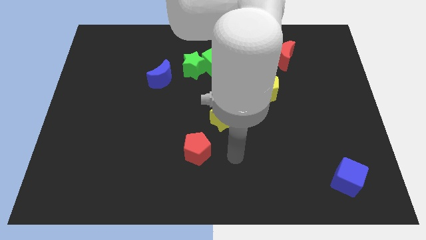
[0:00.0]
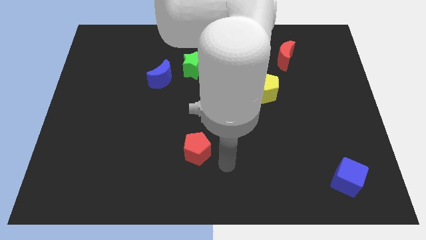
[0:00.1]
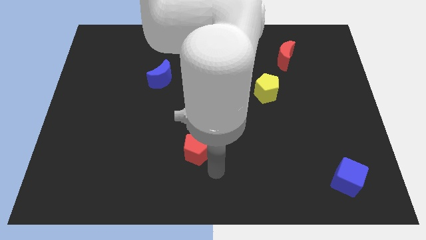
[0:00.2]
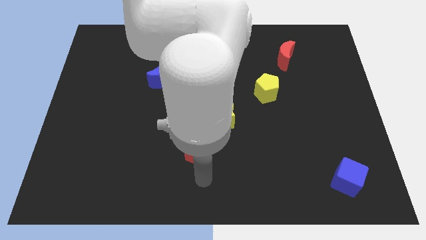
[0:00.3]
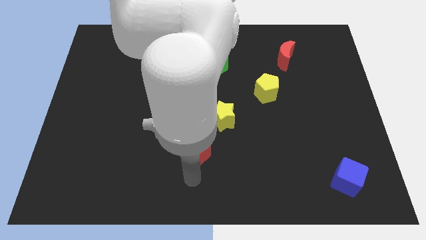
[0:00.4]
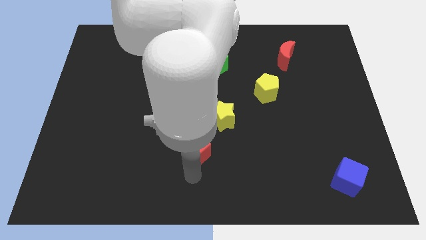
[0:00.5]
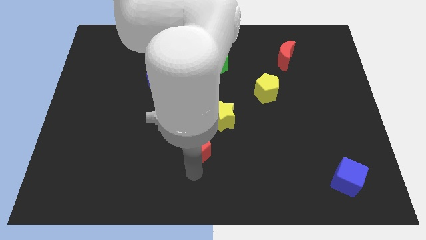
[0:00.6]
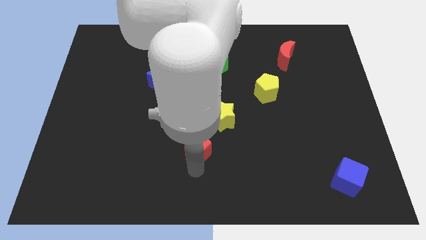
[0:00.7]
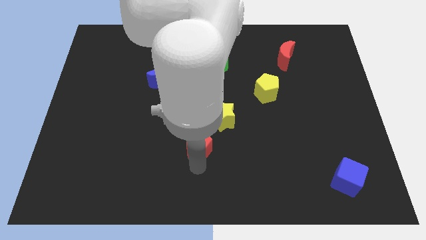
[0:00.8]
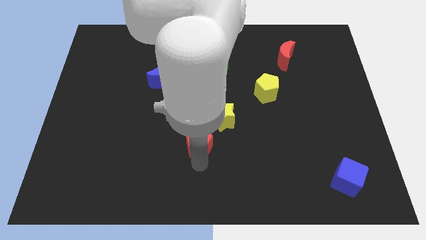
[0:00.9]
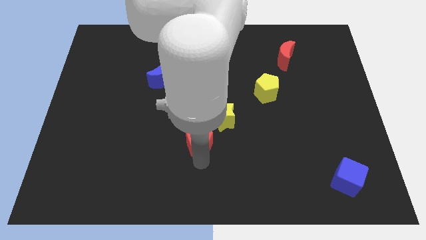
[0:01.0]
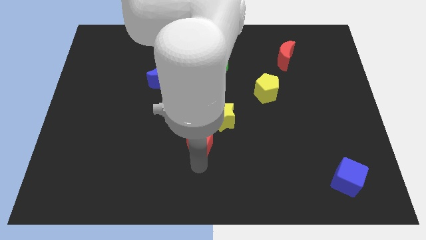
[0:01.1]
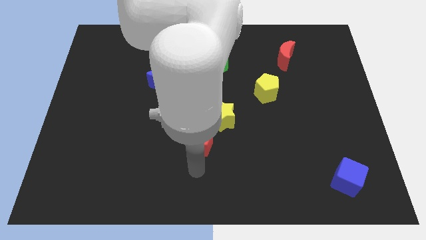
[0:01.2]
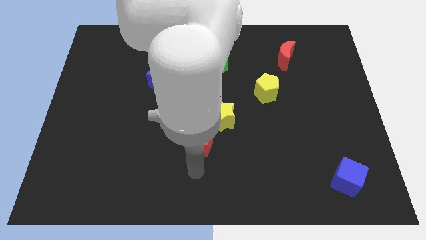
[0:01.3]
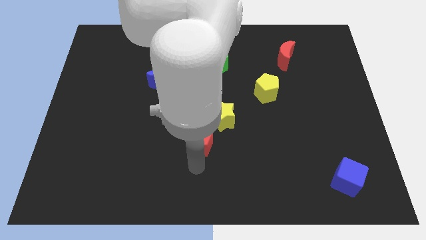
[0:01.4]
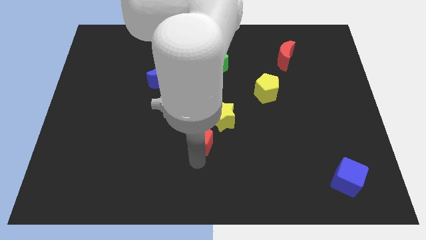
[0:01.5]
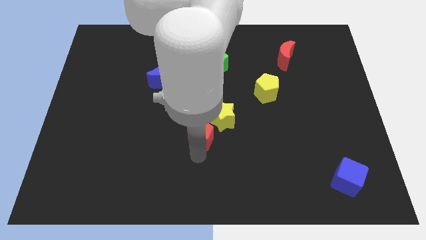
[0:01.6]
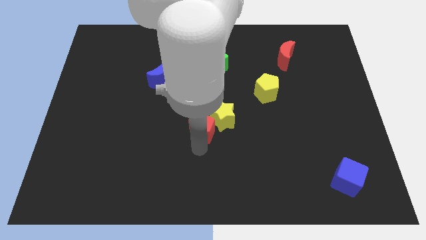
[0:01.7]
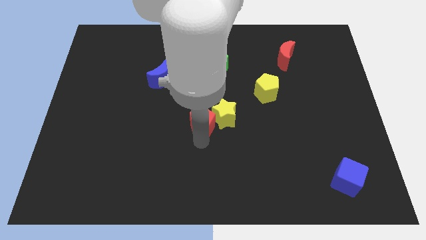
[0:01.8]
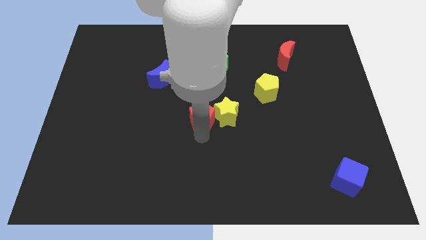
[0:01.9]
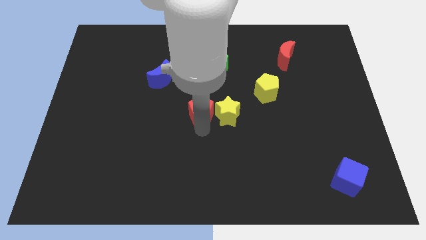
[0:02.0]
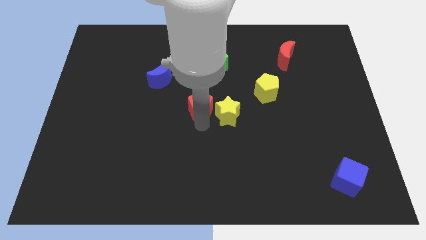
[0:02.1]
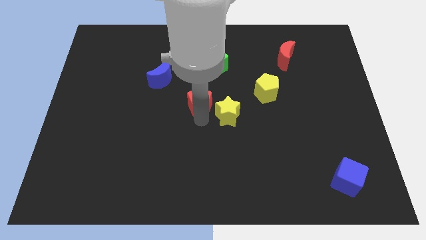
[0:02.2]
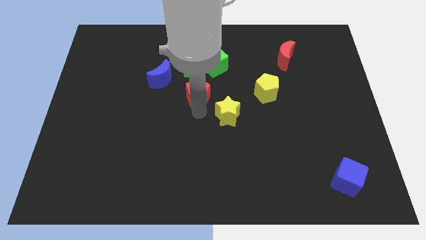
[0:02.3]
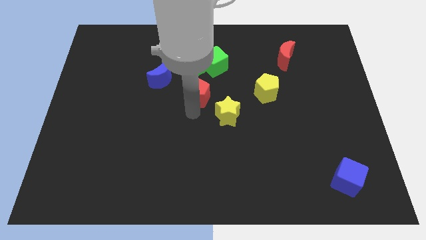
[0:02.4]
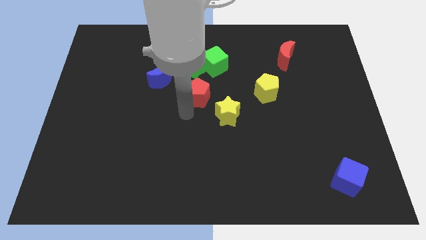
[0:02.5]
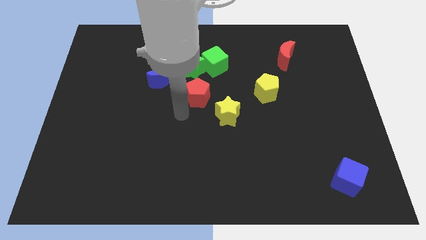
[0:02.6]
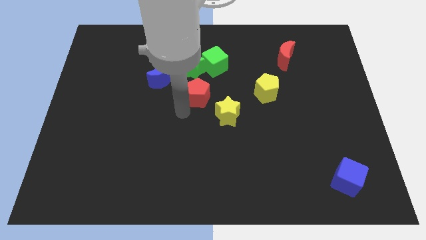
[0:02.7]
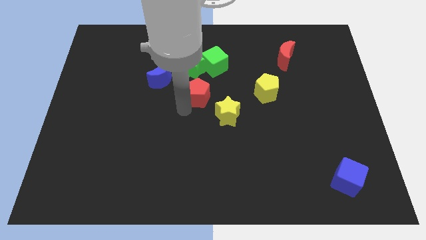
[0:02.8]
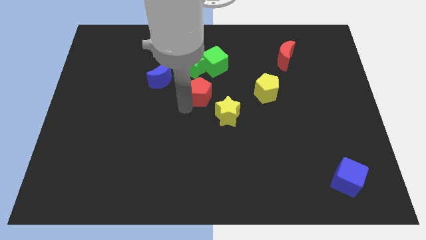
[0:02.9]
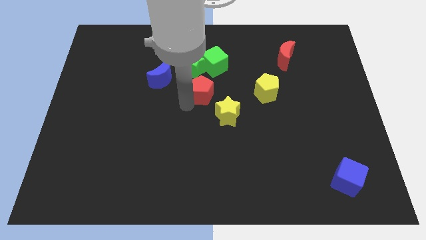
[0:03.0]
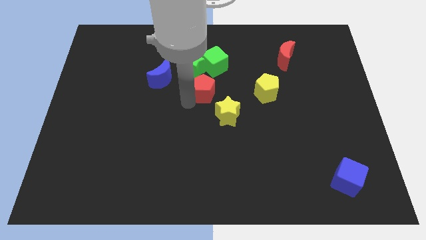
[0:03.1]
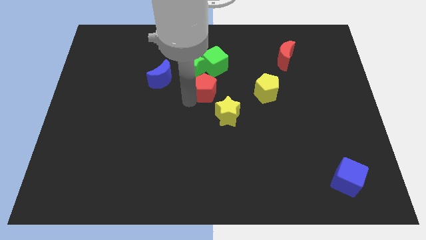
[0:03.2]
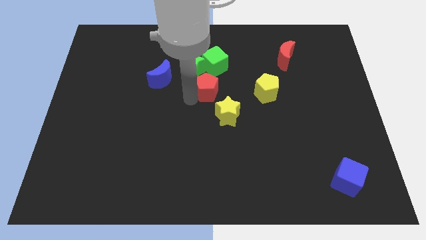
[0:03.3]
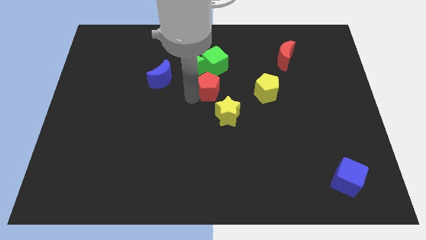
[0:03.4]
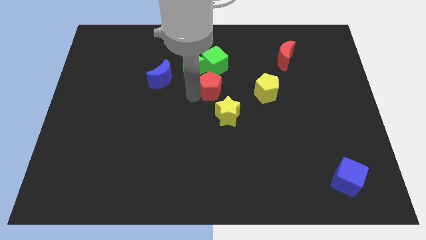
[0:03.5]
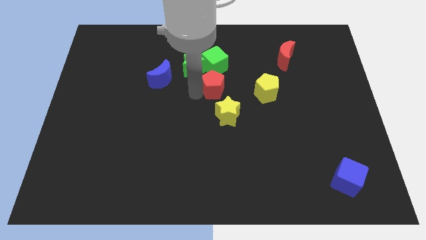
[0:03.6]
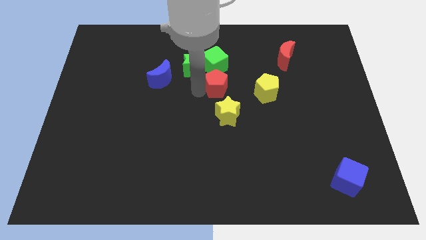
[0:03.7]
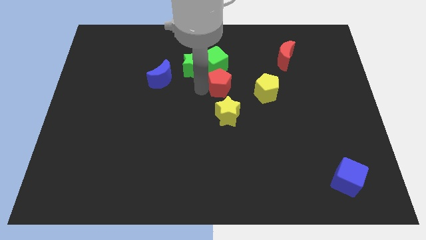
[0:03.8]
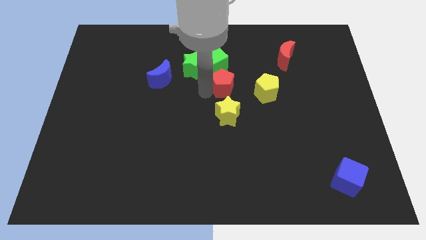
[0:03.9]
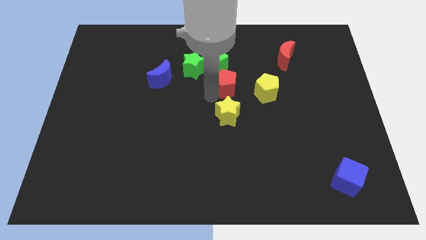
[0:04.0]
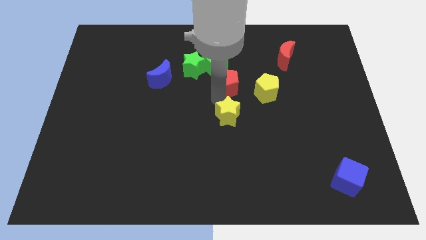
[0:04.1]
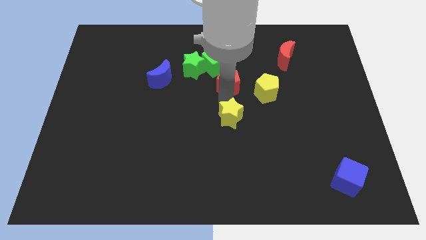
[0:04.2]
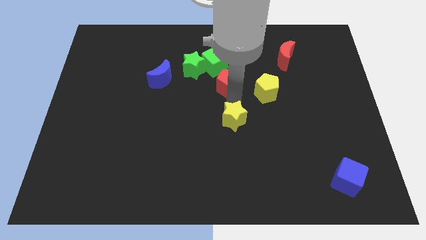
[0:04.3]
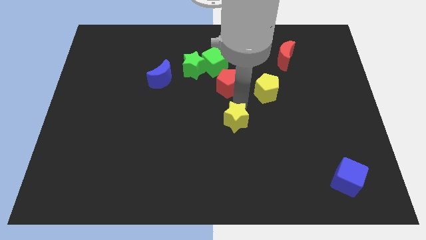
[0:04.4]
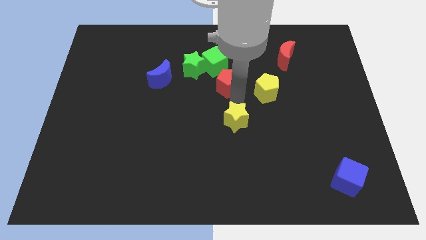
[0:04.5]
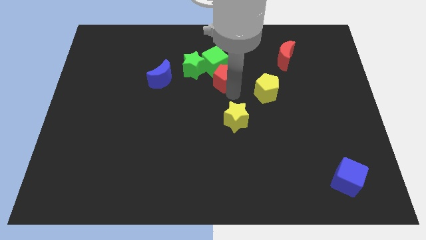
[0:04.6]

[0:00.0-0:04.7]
move the red pentagon to the green cube

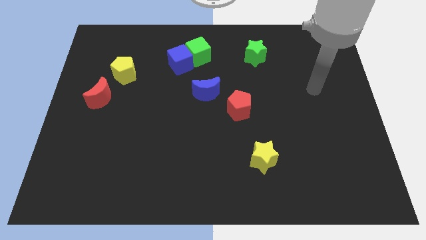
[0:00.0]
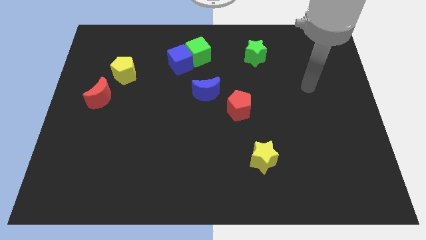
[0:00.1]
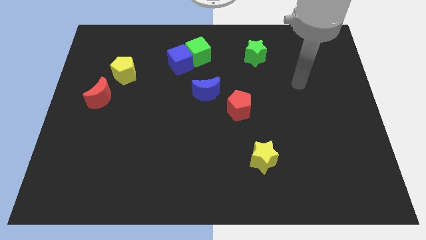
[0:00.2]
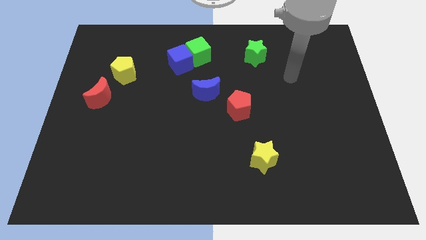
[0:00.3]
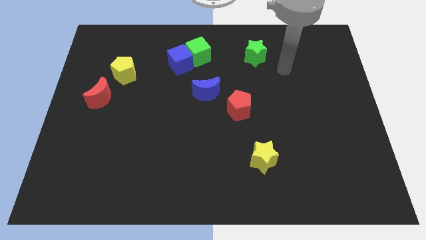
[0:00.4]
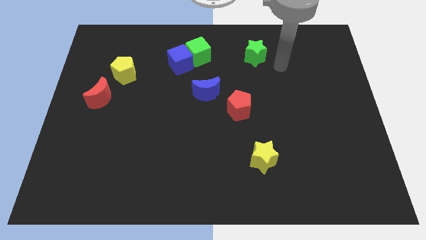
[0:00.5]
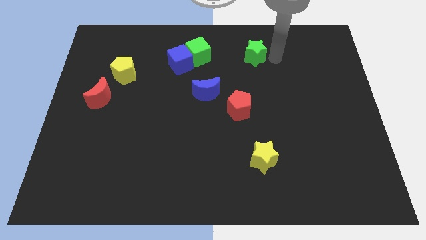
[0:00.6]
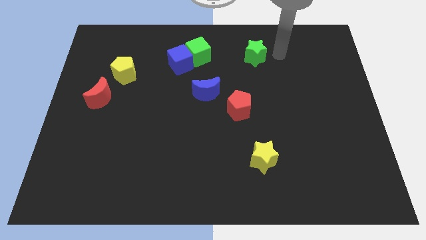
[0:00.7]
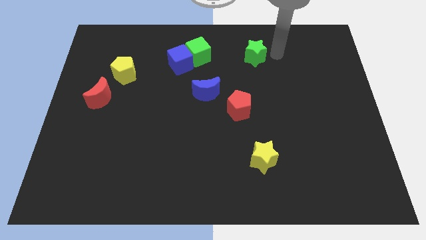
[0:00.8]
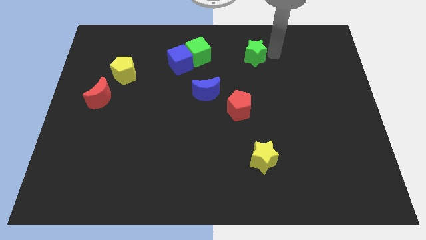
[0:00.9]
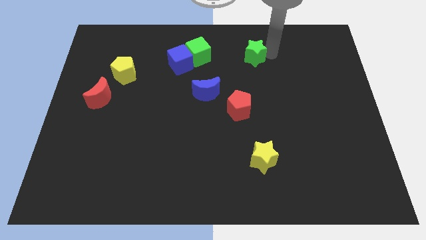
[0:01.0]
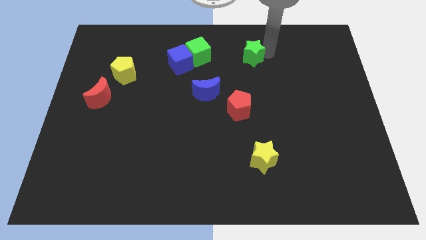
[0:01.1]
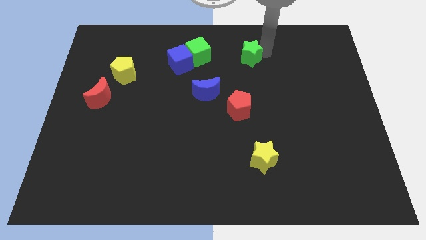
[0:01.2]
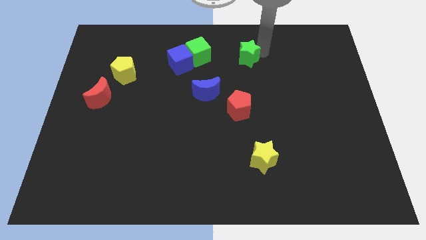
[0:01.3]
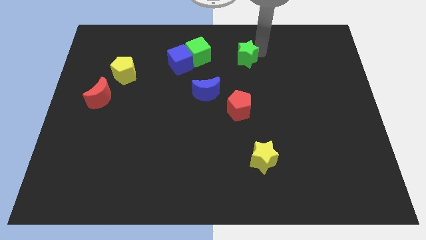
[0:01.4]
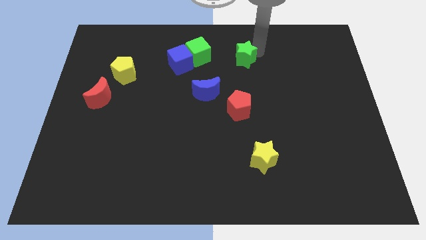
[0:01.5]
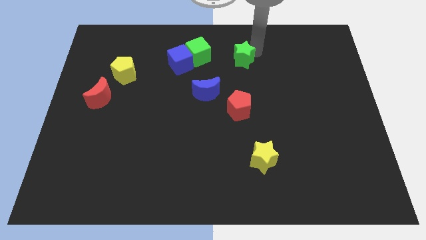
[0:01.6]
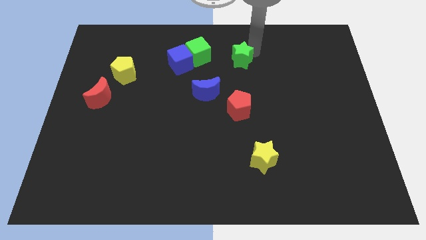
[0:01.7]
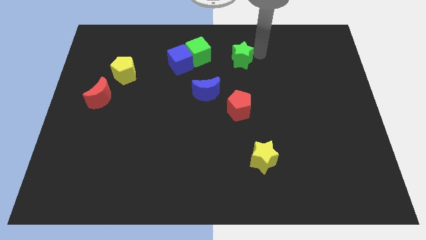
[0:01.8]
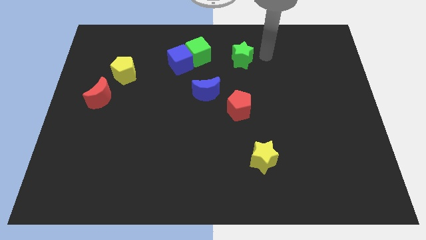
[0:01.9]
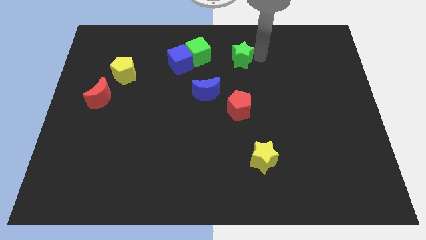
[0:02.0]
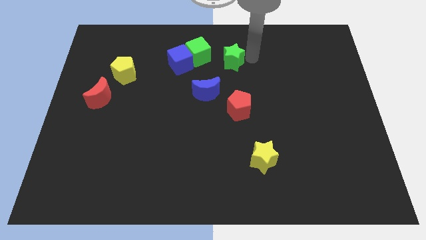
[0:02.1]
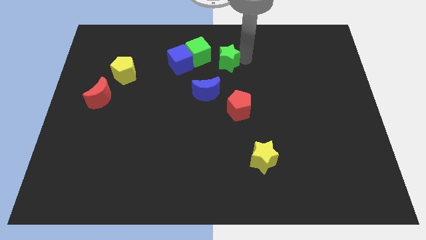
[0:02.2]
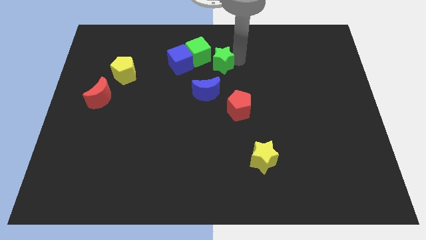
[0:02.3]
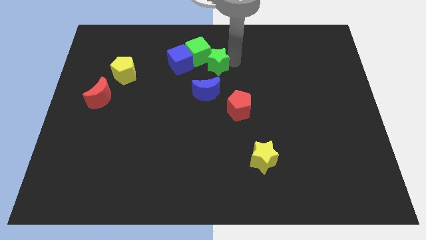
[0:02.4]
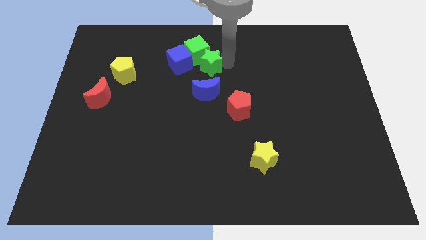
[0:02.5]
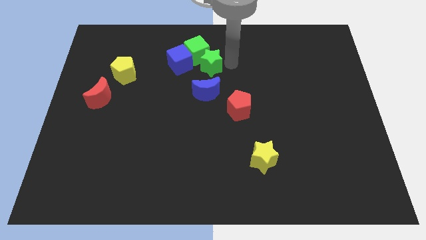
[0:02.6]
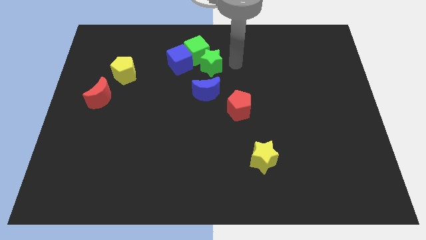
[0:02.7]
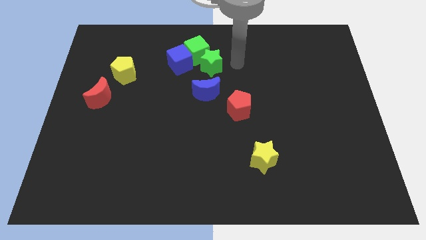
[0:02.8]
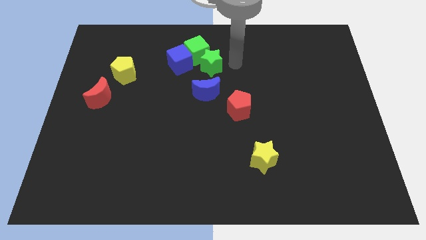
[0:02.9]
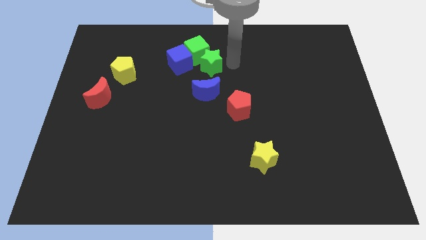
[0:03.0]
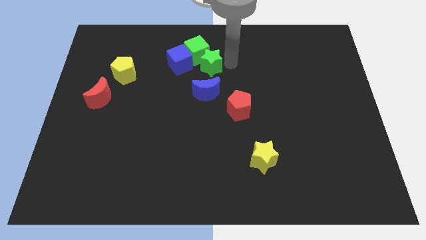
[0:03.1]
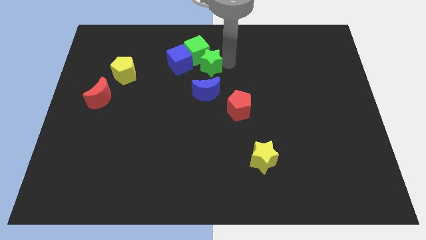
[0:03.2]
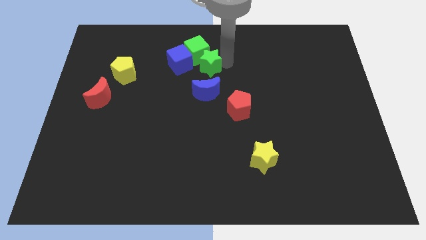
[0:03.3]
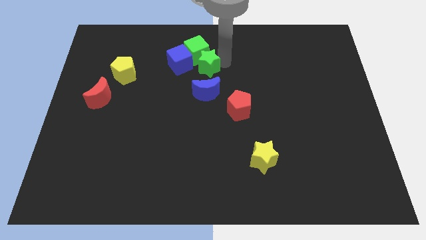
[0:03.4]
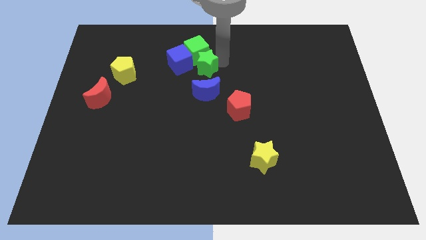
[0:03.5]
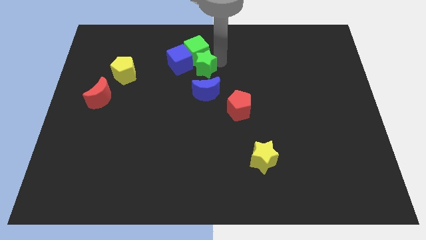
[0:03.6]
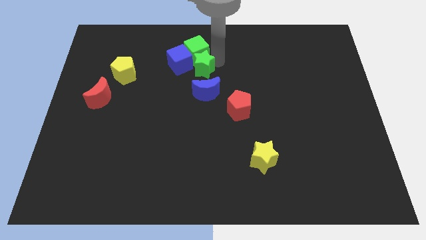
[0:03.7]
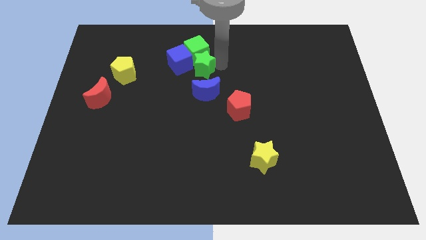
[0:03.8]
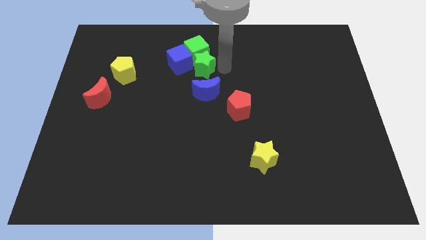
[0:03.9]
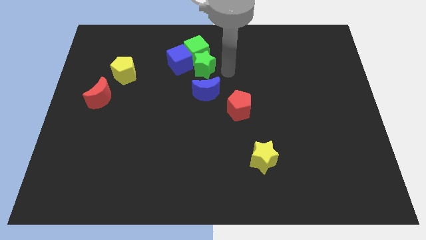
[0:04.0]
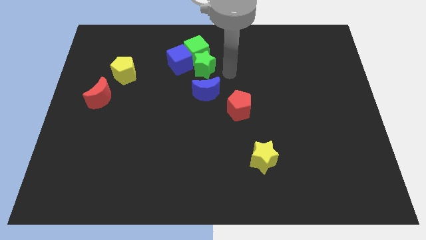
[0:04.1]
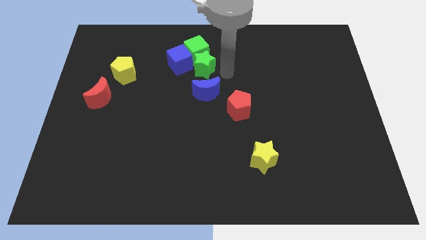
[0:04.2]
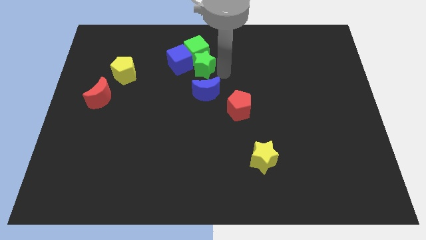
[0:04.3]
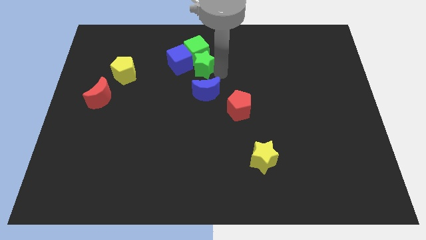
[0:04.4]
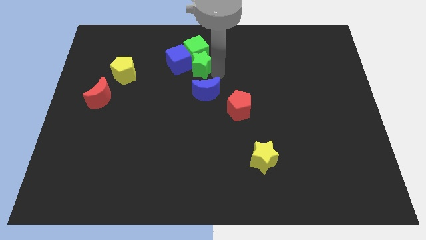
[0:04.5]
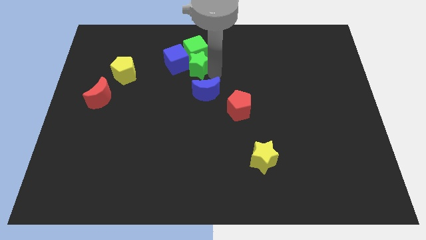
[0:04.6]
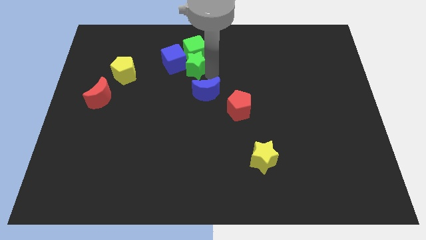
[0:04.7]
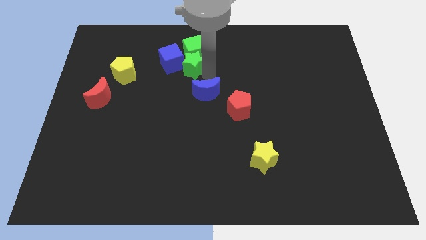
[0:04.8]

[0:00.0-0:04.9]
move the green star close to the blue cube
